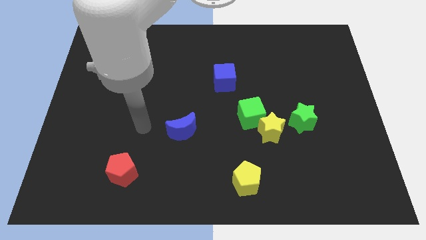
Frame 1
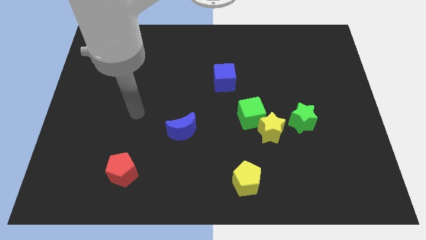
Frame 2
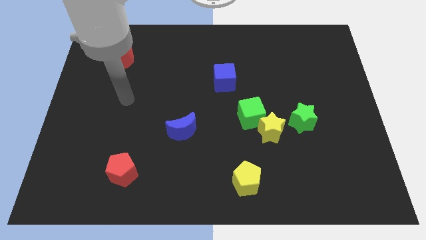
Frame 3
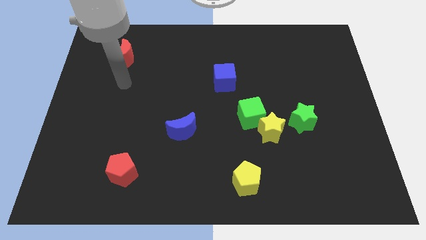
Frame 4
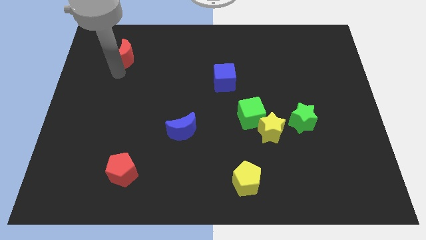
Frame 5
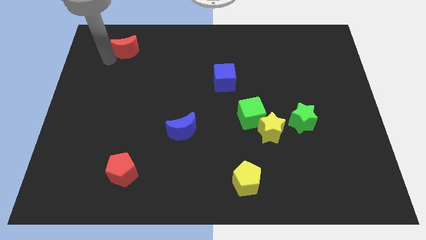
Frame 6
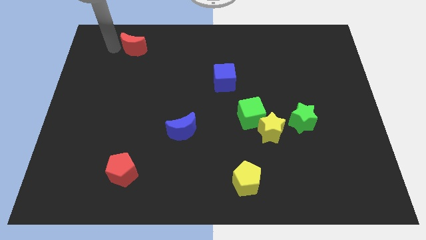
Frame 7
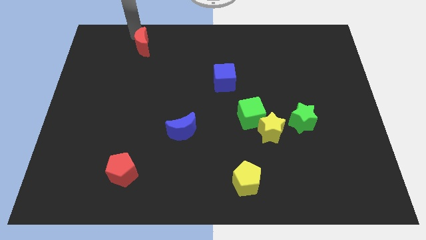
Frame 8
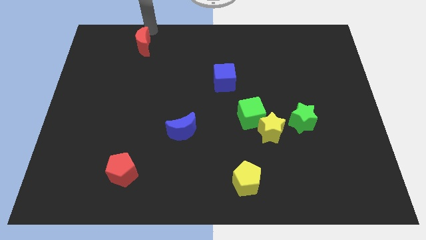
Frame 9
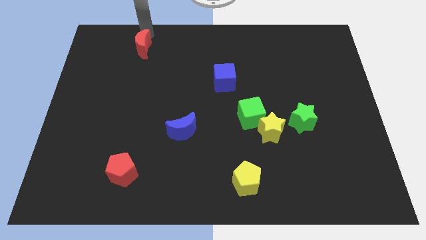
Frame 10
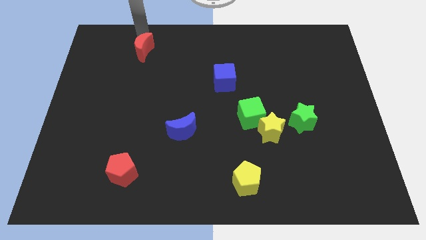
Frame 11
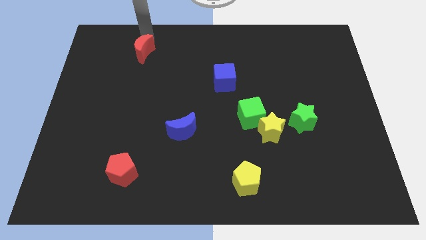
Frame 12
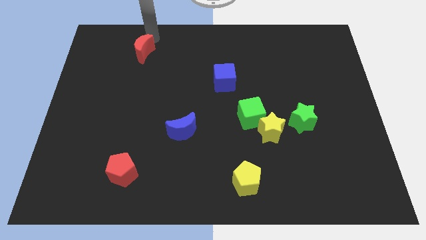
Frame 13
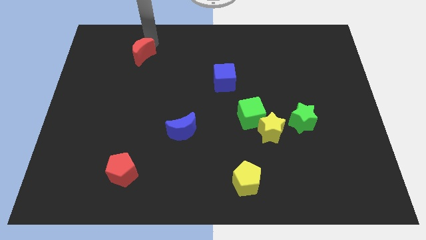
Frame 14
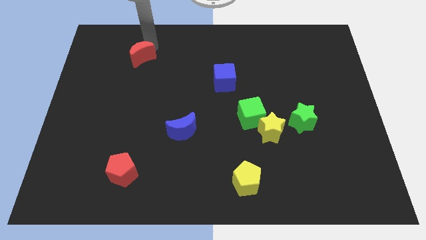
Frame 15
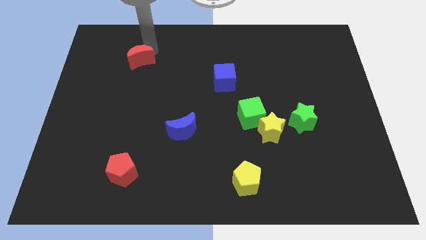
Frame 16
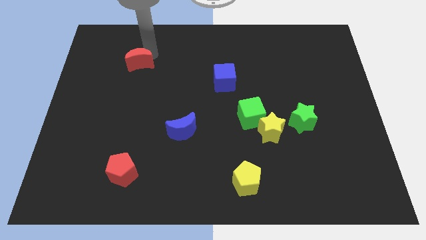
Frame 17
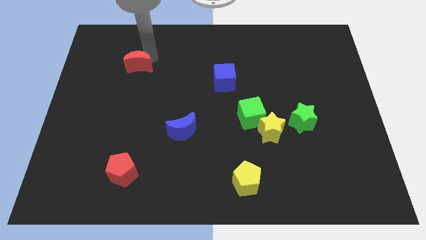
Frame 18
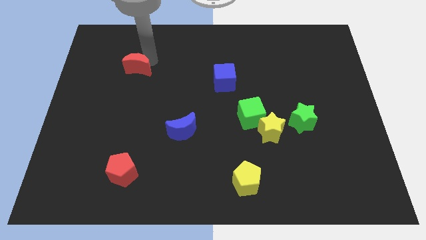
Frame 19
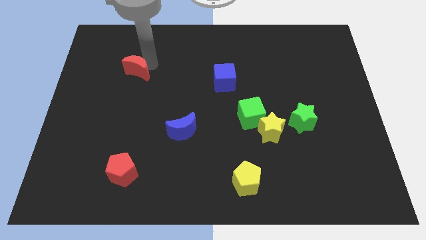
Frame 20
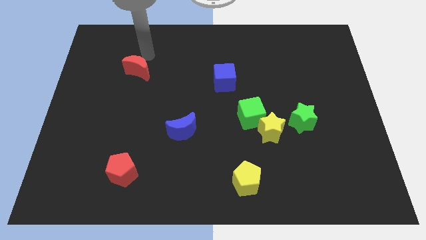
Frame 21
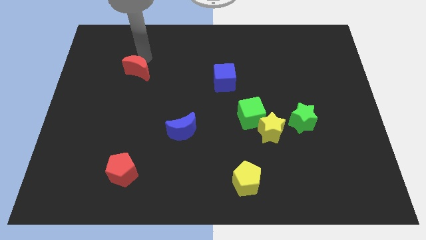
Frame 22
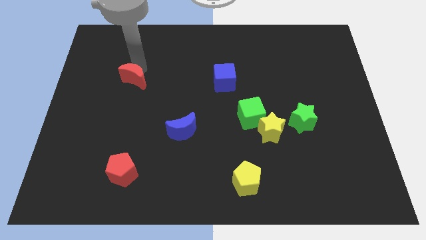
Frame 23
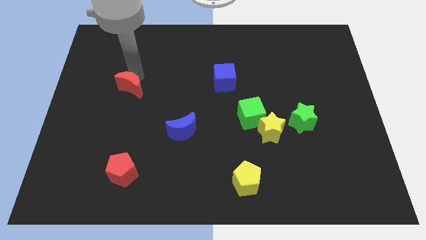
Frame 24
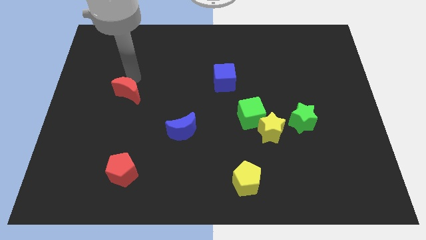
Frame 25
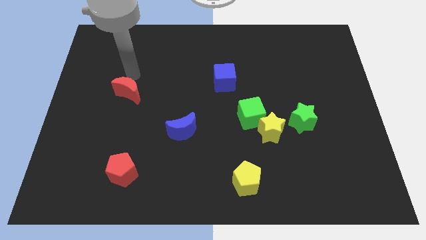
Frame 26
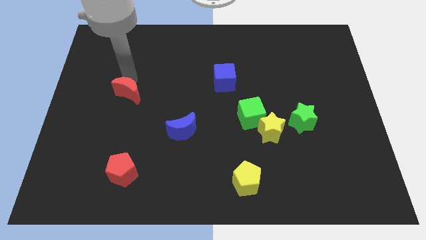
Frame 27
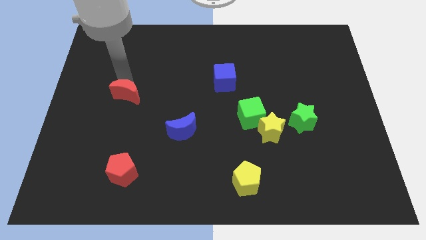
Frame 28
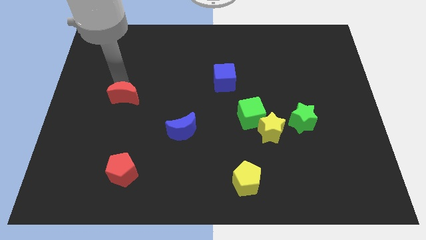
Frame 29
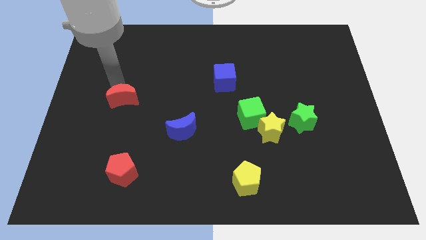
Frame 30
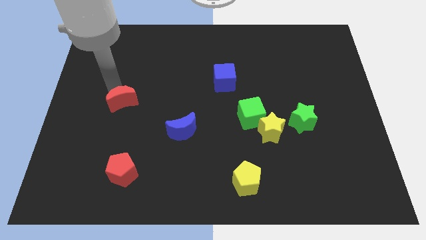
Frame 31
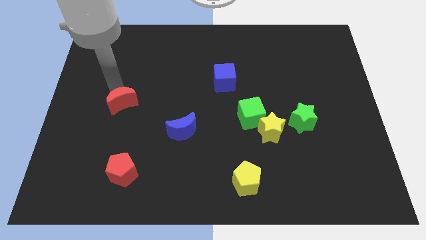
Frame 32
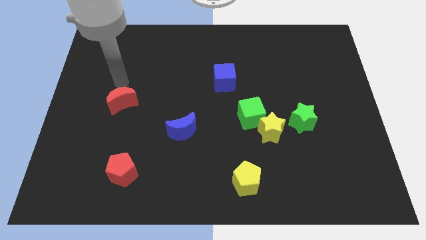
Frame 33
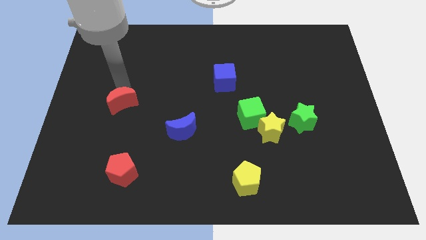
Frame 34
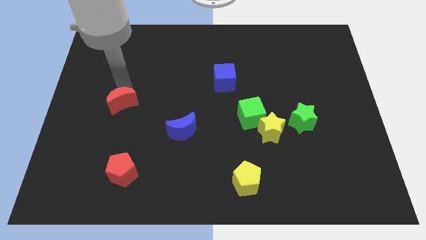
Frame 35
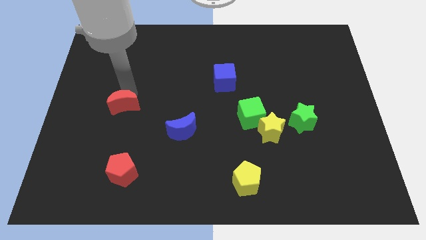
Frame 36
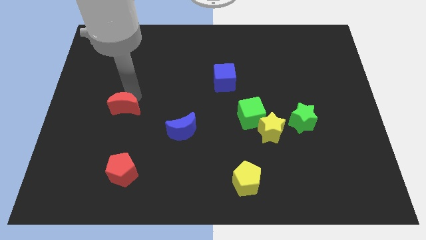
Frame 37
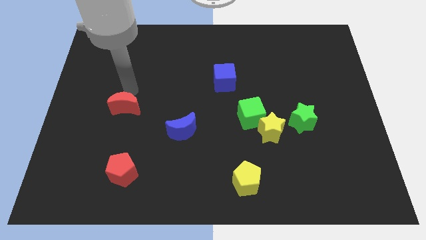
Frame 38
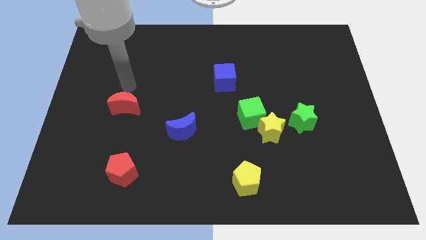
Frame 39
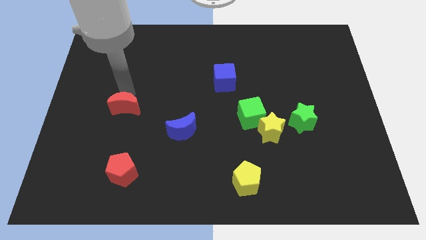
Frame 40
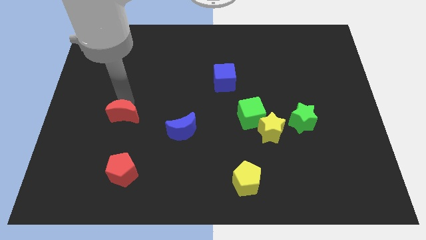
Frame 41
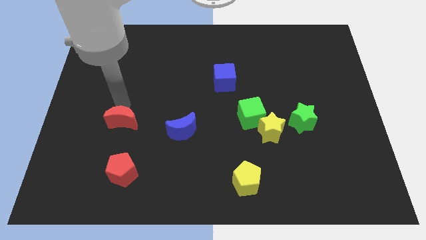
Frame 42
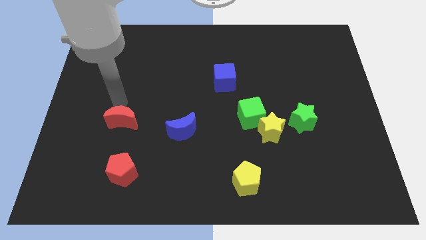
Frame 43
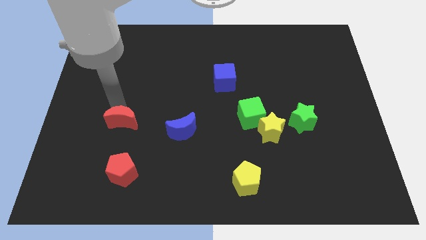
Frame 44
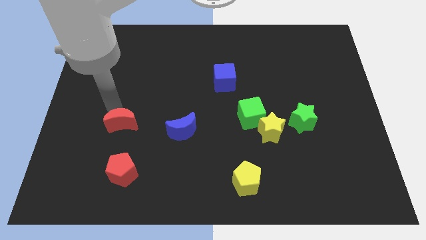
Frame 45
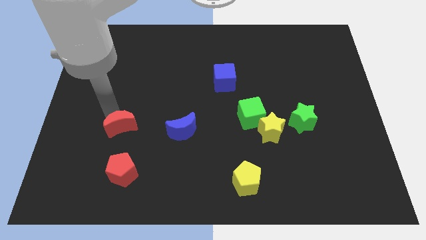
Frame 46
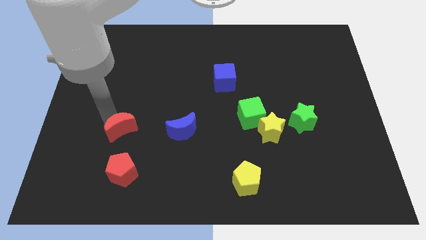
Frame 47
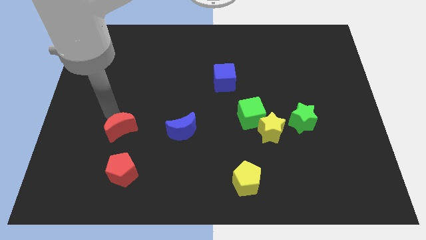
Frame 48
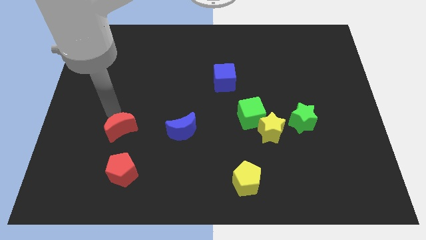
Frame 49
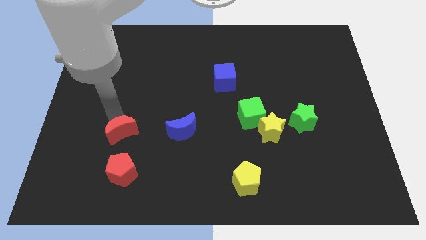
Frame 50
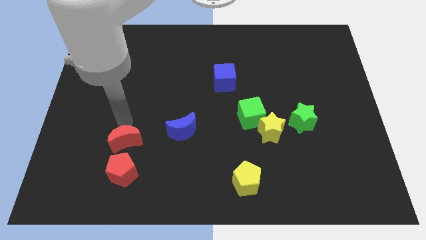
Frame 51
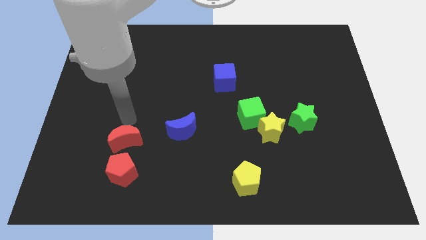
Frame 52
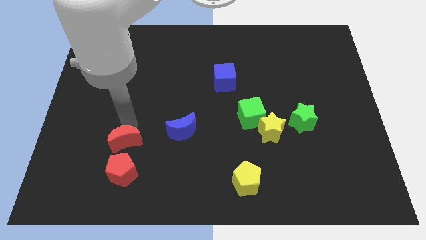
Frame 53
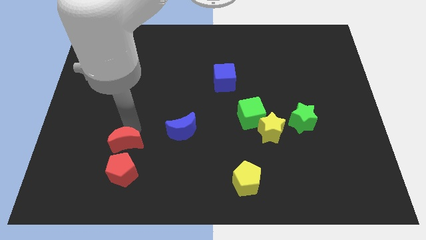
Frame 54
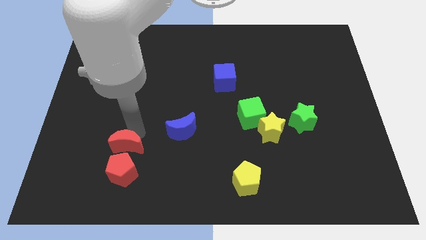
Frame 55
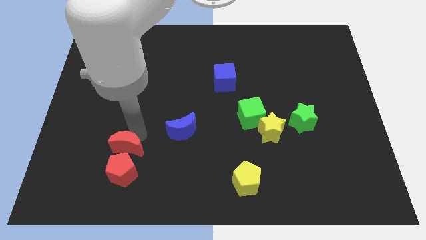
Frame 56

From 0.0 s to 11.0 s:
put the red moon close to the red pentagon

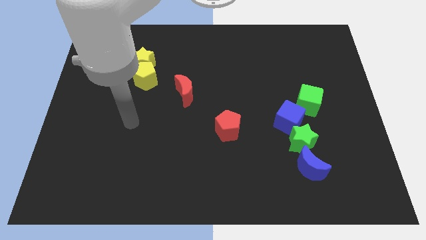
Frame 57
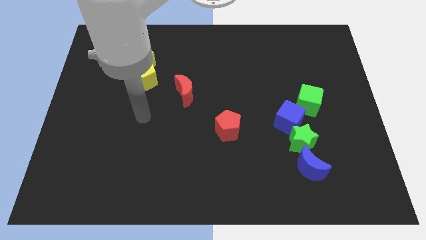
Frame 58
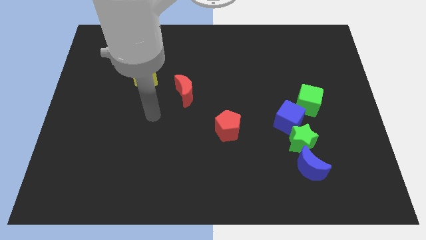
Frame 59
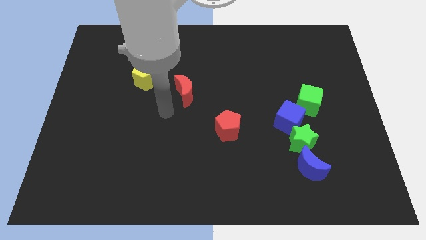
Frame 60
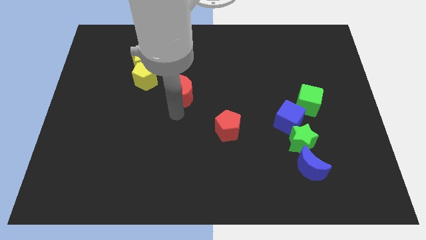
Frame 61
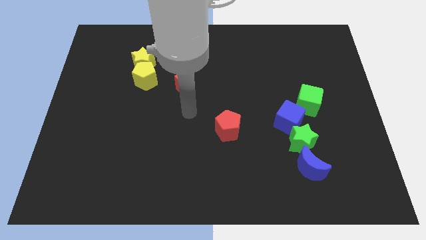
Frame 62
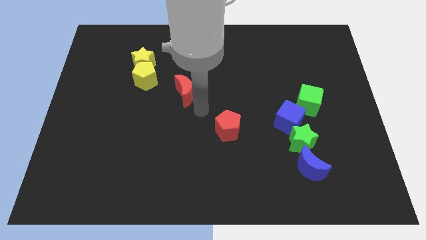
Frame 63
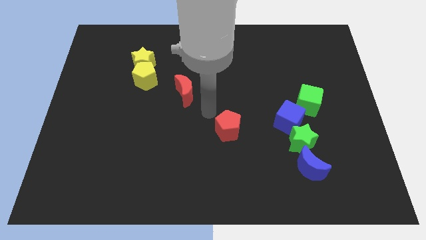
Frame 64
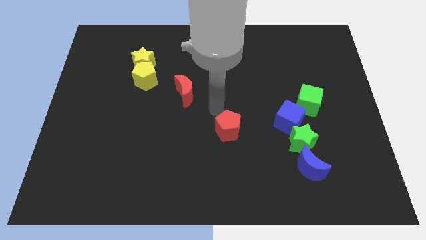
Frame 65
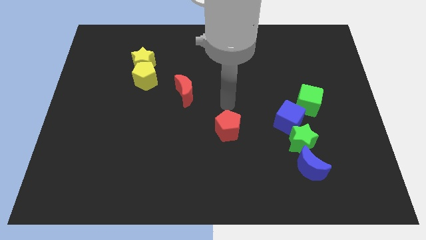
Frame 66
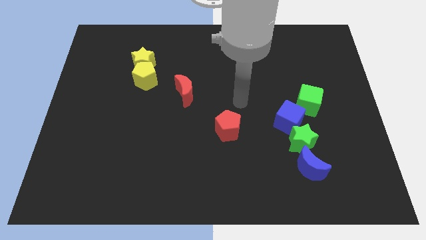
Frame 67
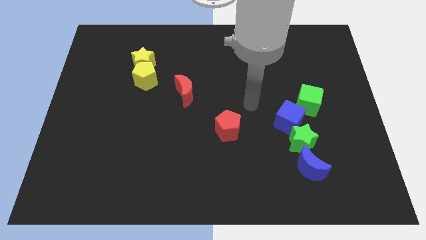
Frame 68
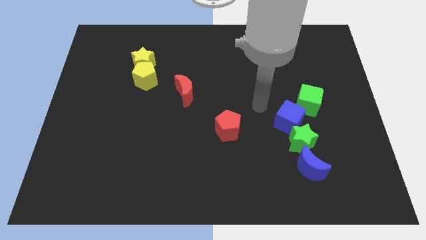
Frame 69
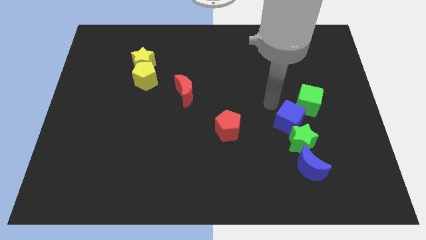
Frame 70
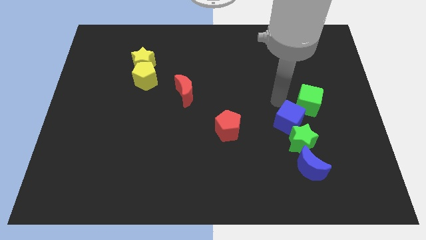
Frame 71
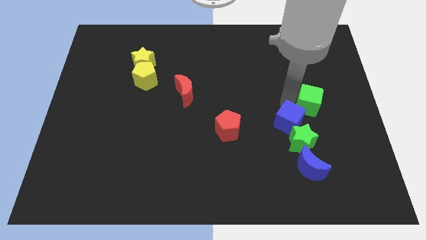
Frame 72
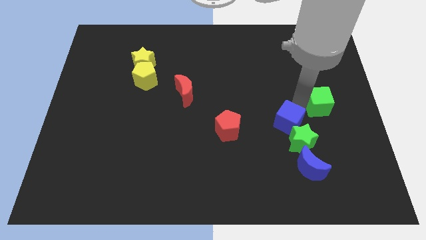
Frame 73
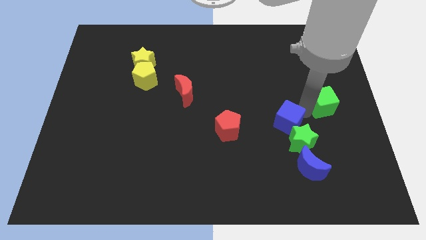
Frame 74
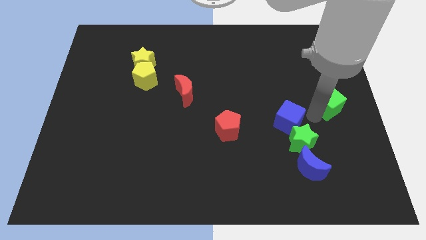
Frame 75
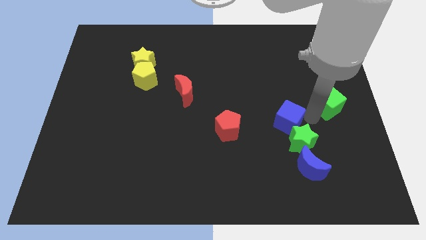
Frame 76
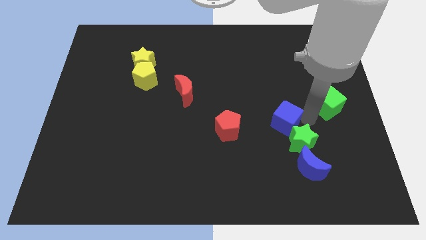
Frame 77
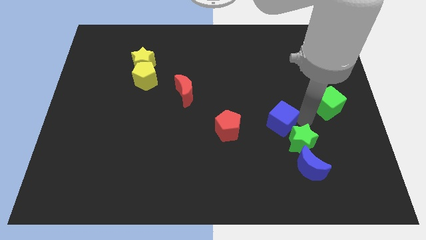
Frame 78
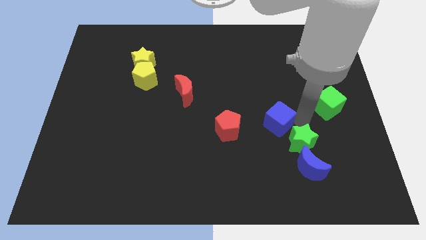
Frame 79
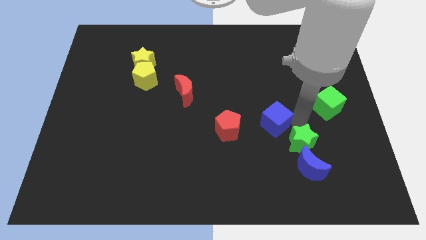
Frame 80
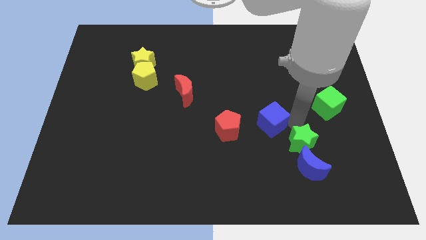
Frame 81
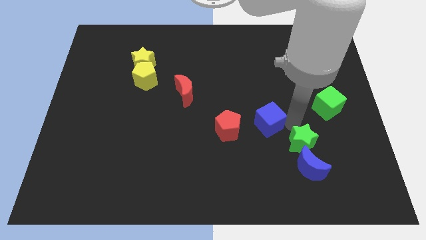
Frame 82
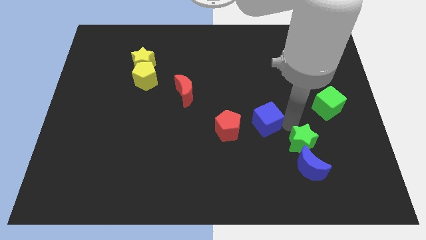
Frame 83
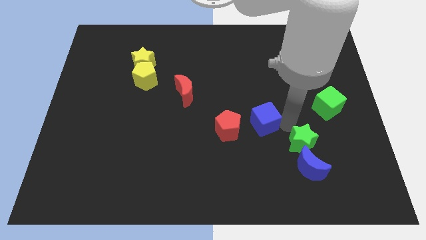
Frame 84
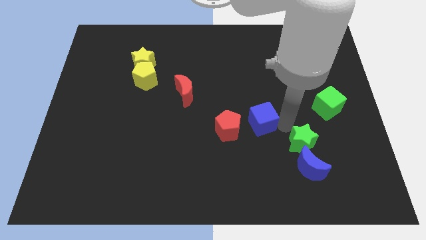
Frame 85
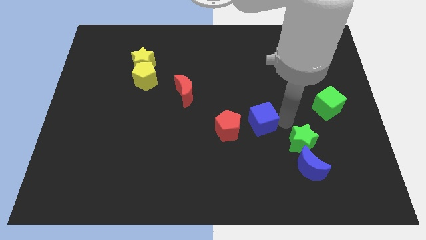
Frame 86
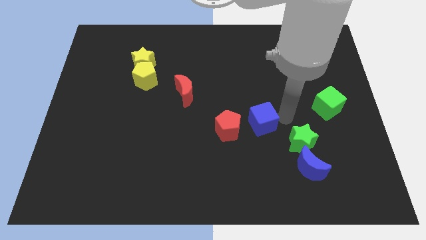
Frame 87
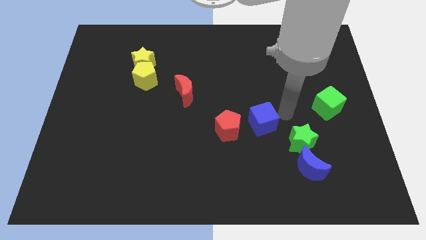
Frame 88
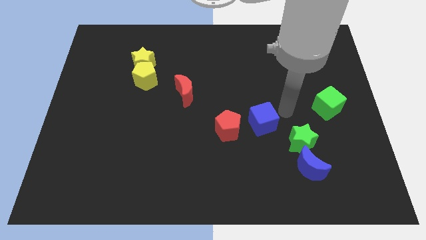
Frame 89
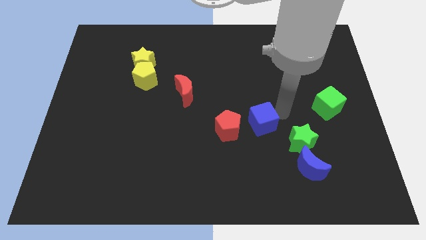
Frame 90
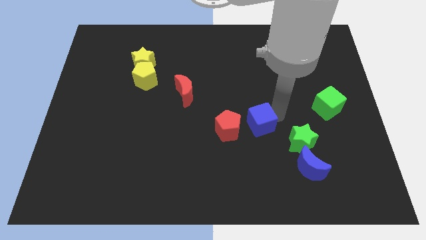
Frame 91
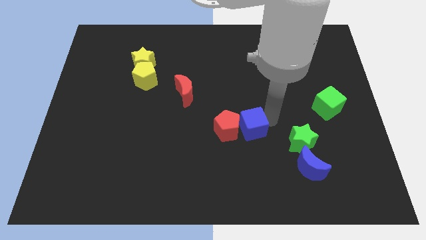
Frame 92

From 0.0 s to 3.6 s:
put the blue cube close to the red pentagon
